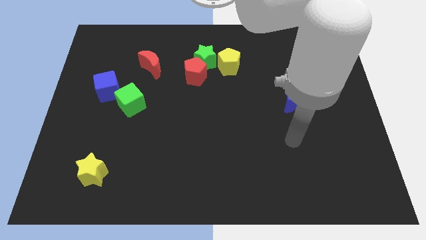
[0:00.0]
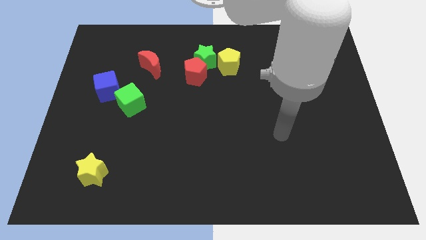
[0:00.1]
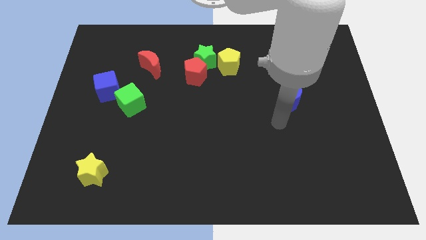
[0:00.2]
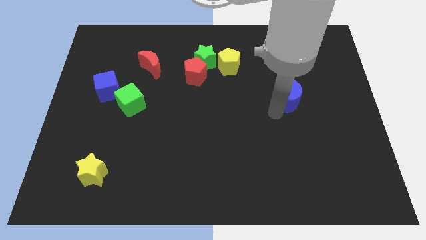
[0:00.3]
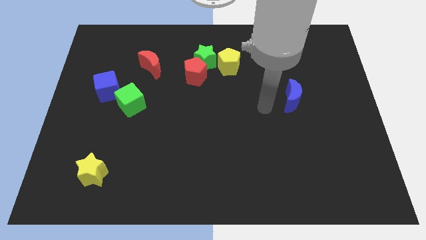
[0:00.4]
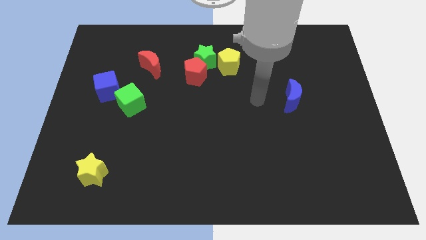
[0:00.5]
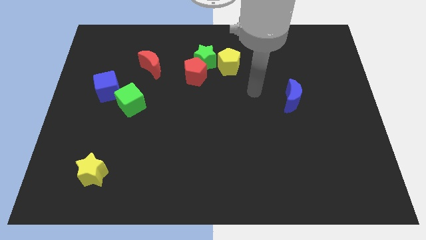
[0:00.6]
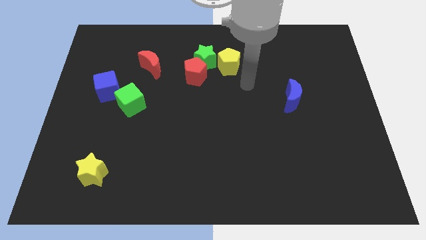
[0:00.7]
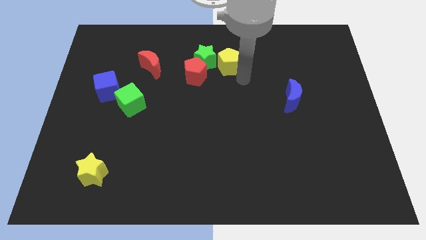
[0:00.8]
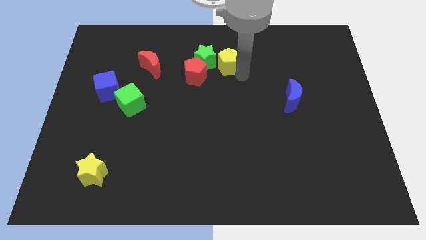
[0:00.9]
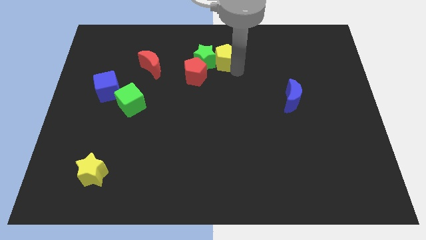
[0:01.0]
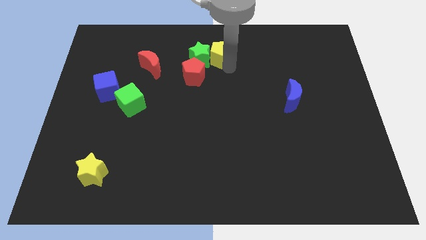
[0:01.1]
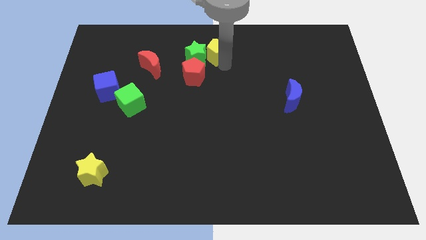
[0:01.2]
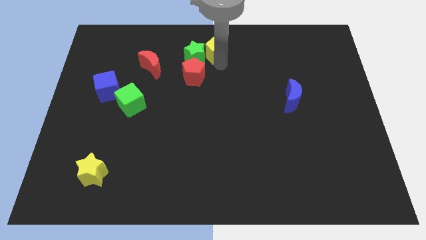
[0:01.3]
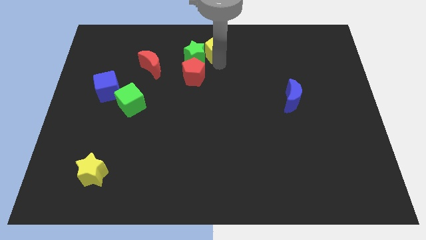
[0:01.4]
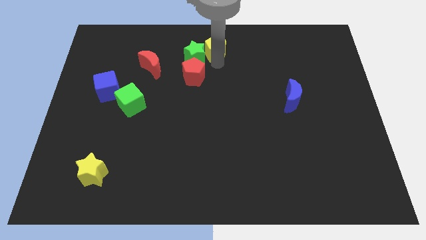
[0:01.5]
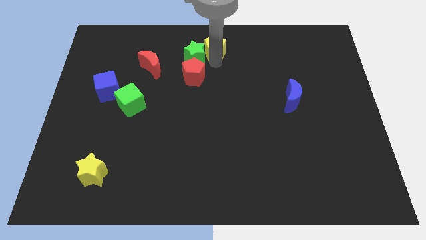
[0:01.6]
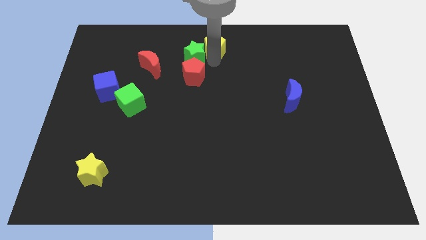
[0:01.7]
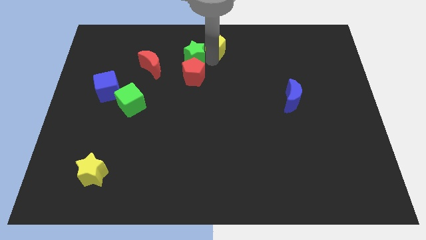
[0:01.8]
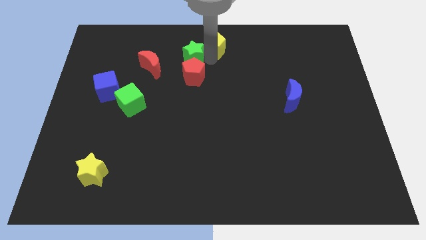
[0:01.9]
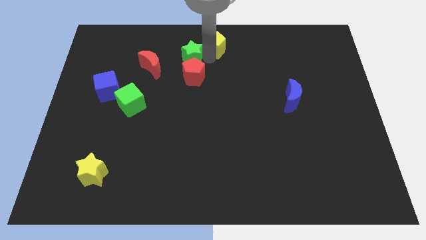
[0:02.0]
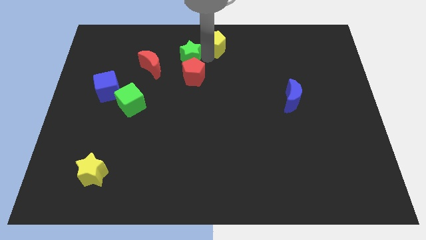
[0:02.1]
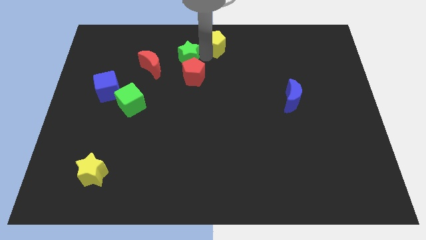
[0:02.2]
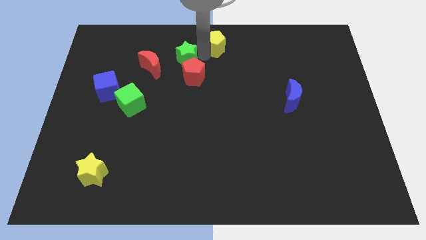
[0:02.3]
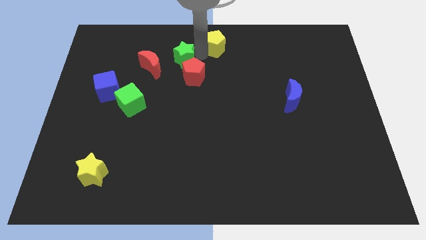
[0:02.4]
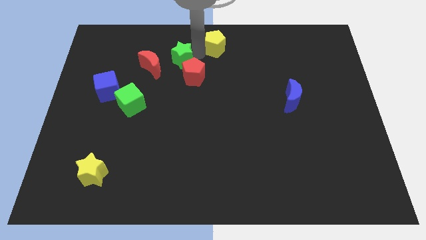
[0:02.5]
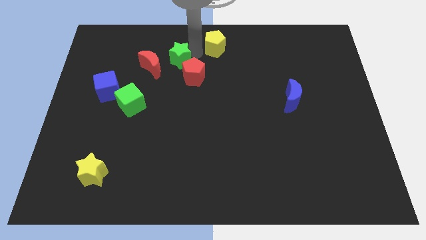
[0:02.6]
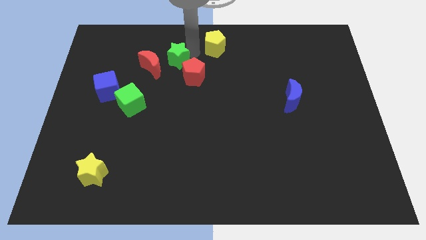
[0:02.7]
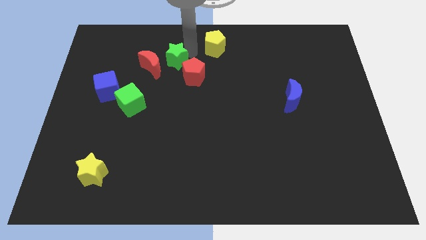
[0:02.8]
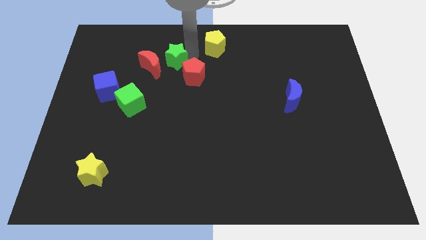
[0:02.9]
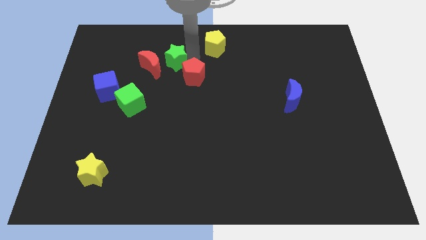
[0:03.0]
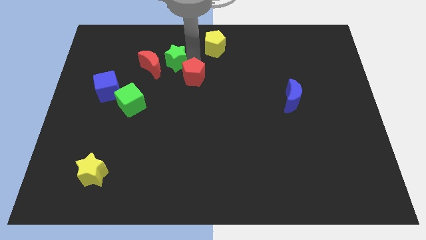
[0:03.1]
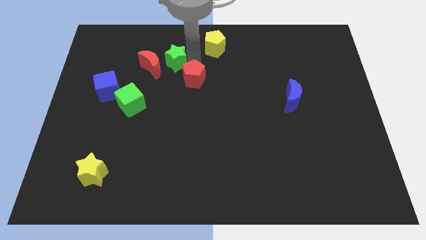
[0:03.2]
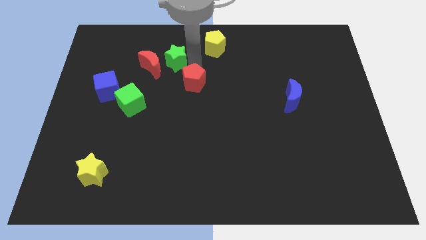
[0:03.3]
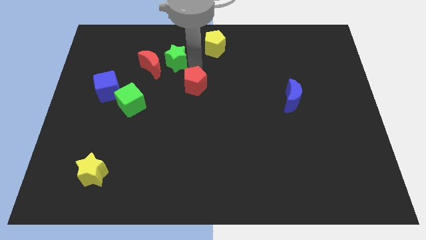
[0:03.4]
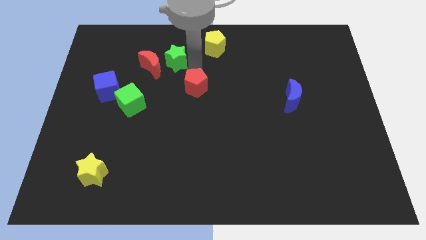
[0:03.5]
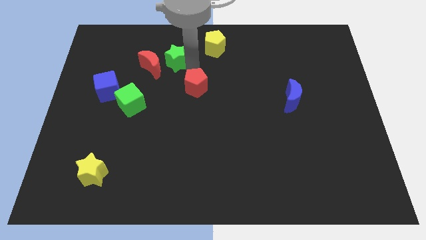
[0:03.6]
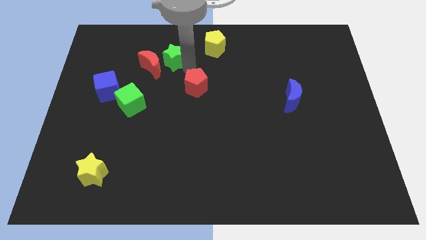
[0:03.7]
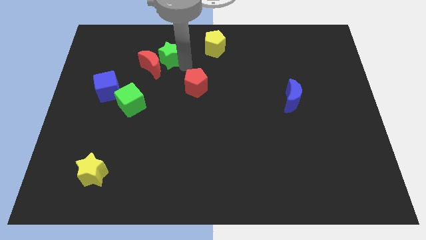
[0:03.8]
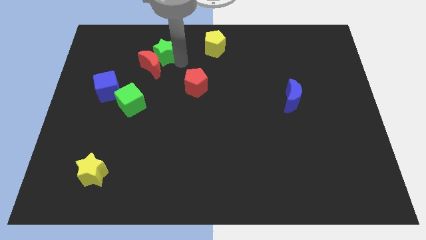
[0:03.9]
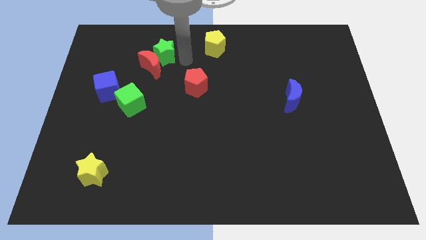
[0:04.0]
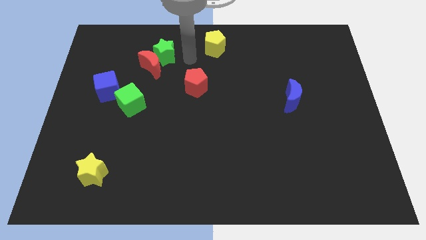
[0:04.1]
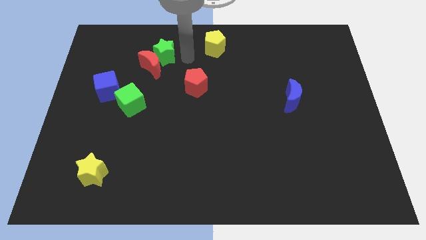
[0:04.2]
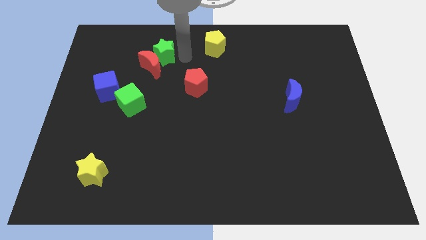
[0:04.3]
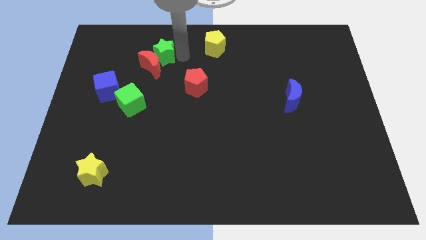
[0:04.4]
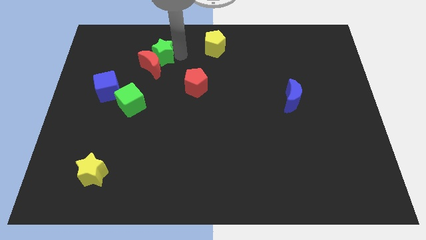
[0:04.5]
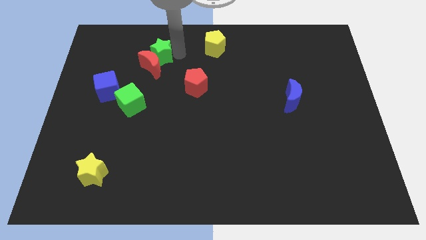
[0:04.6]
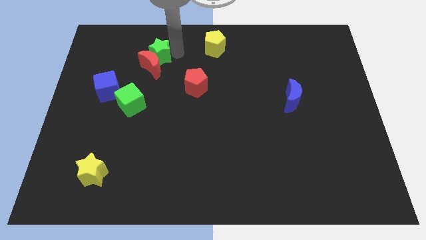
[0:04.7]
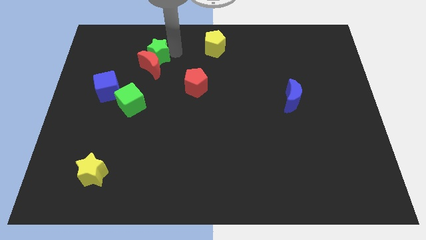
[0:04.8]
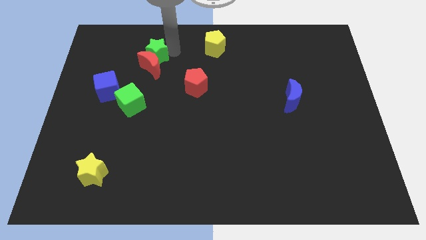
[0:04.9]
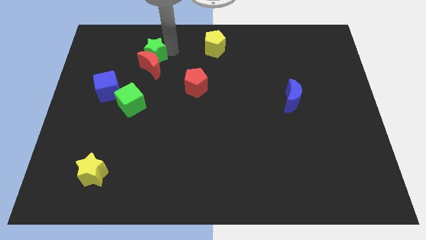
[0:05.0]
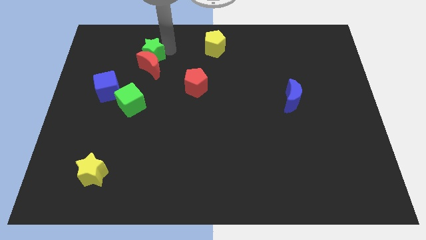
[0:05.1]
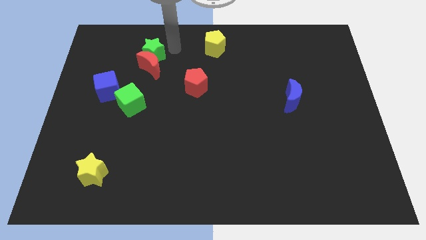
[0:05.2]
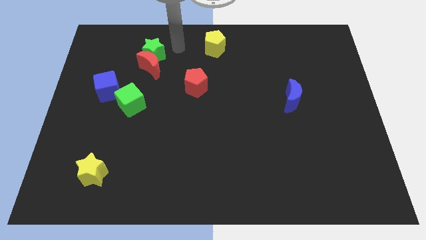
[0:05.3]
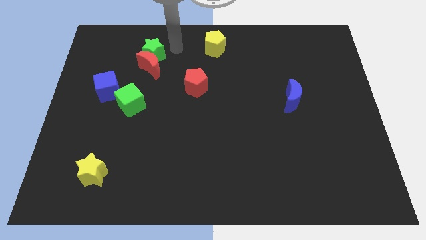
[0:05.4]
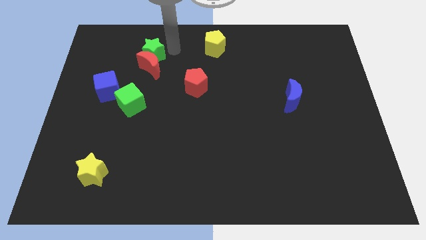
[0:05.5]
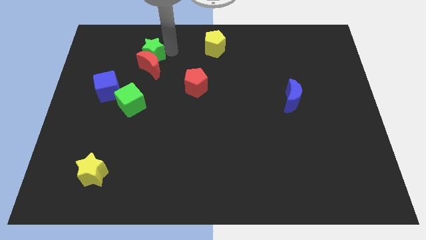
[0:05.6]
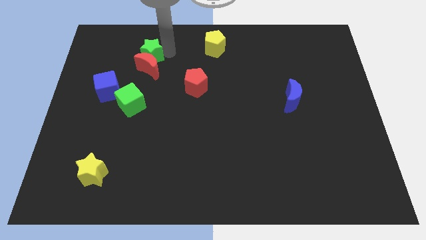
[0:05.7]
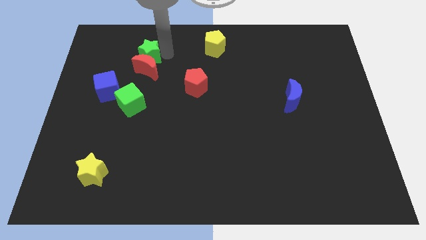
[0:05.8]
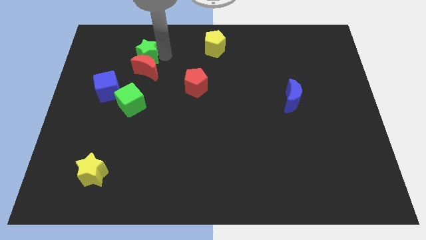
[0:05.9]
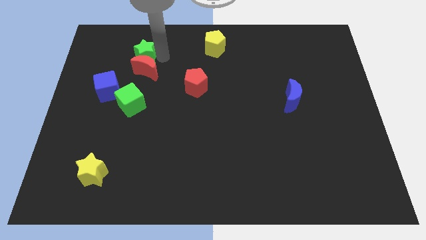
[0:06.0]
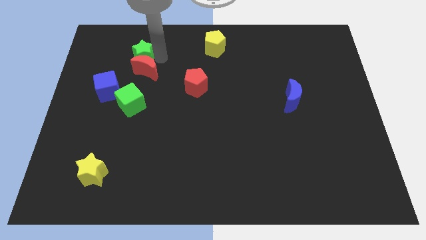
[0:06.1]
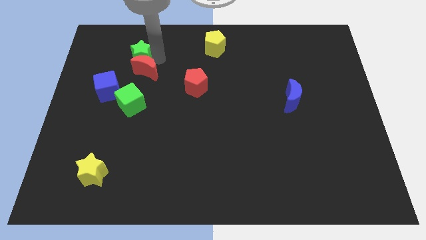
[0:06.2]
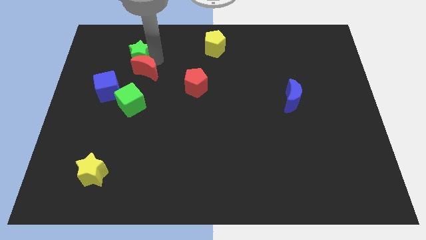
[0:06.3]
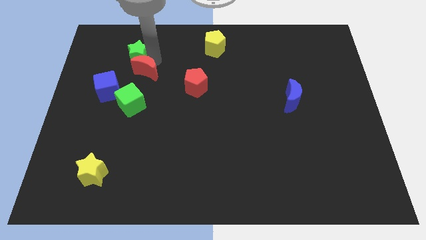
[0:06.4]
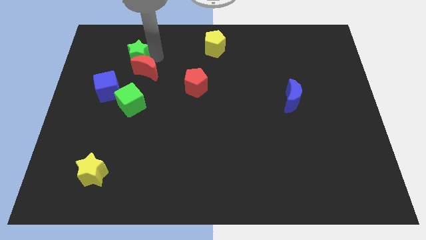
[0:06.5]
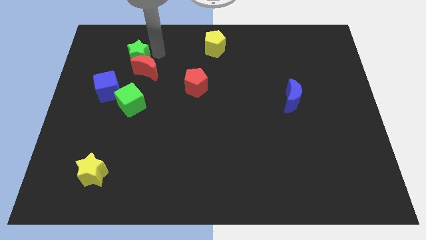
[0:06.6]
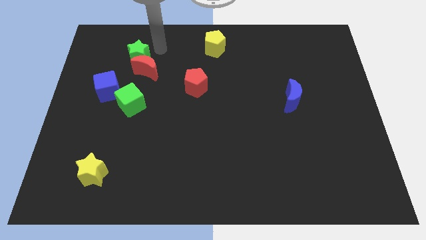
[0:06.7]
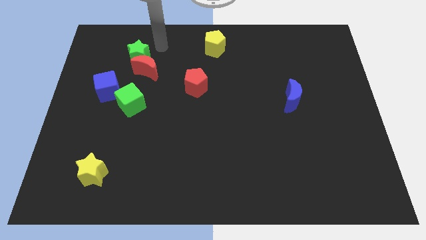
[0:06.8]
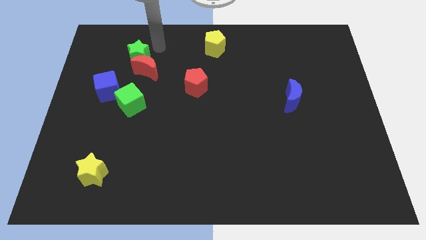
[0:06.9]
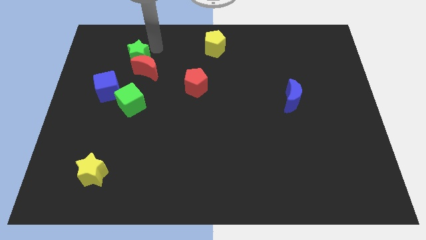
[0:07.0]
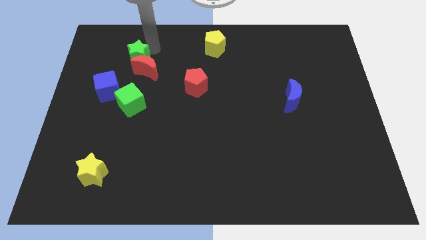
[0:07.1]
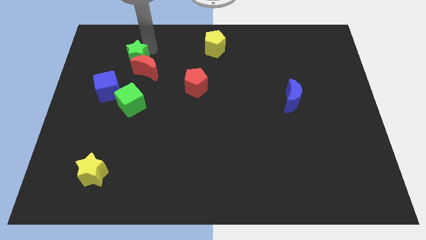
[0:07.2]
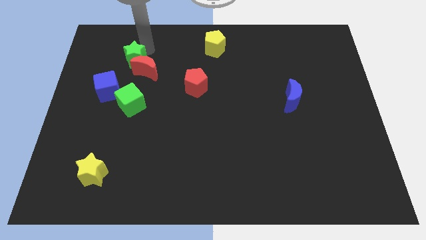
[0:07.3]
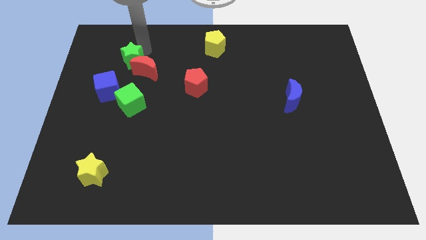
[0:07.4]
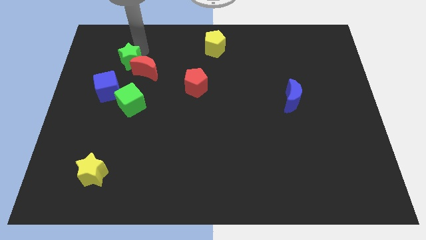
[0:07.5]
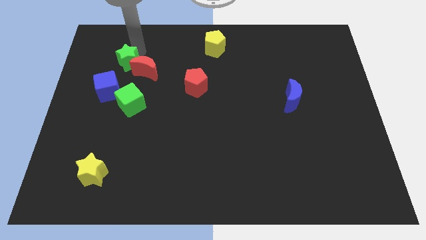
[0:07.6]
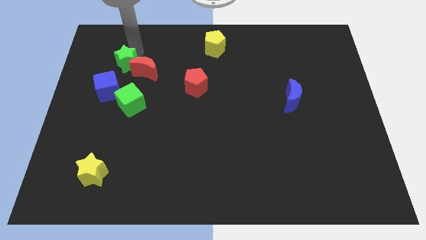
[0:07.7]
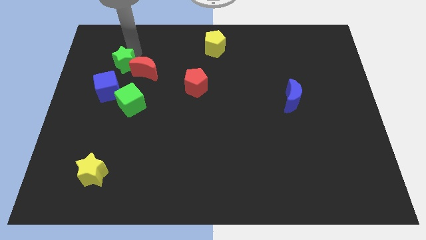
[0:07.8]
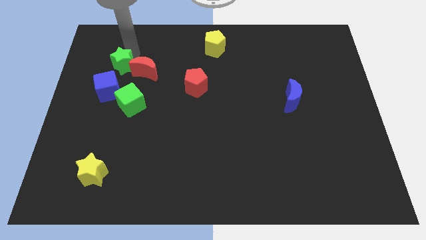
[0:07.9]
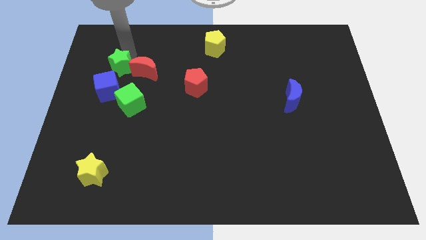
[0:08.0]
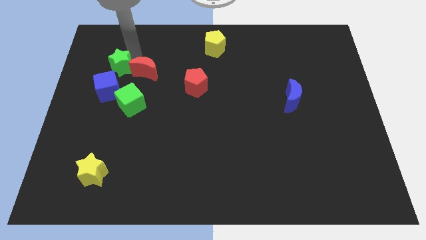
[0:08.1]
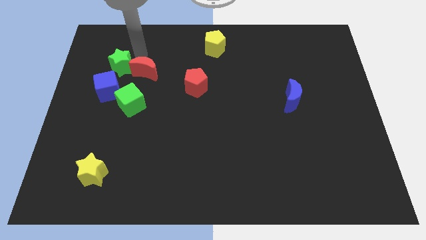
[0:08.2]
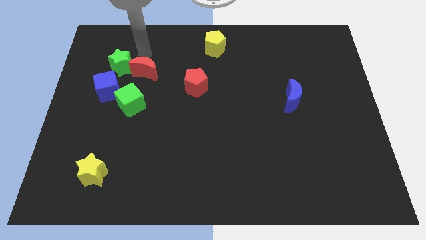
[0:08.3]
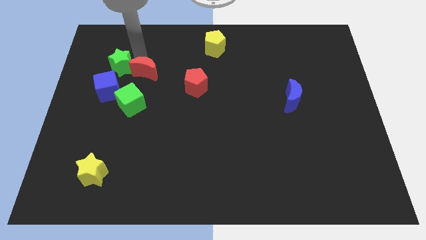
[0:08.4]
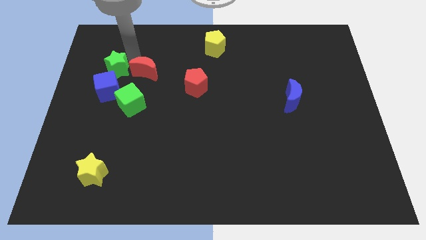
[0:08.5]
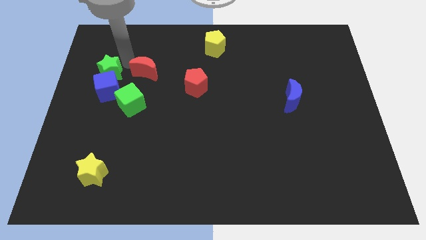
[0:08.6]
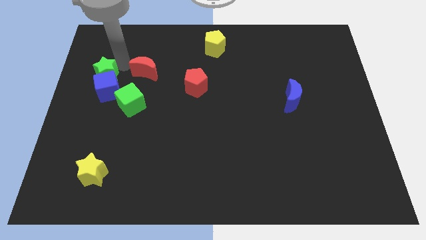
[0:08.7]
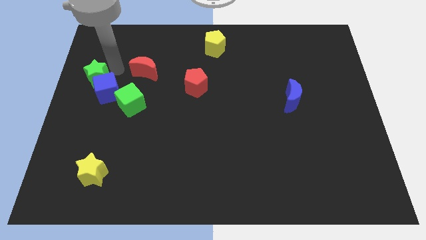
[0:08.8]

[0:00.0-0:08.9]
slide the green star to the left side
